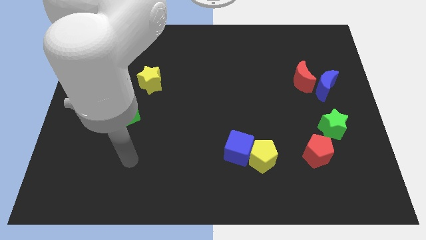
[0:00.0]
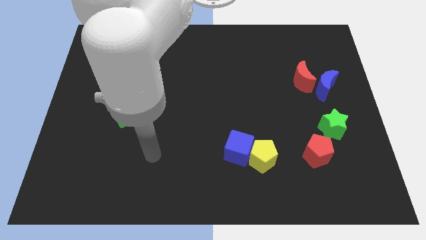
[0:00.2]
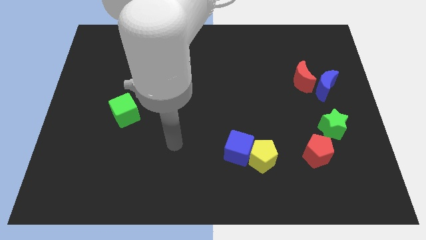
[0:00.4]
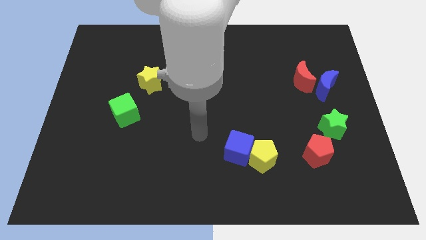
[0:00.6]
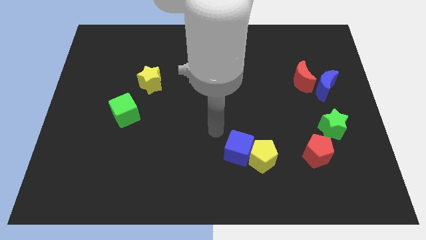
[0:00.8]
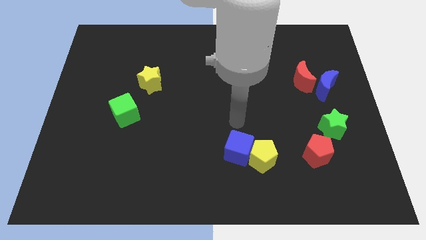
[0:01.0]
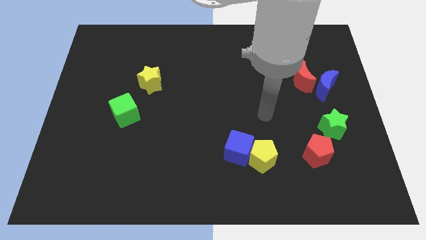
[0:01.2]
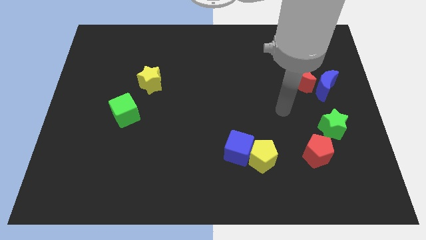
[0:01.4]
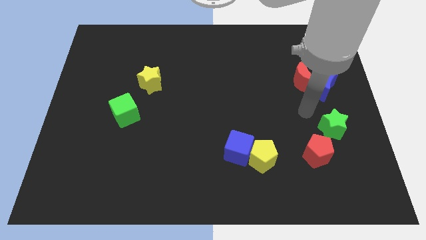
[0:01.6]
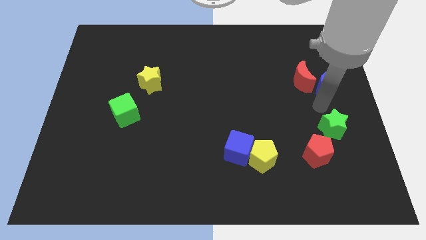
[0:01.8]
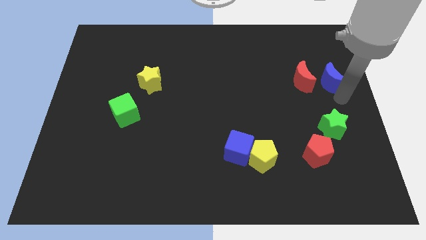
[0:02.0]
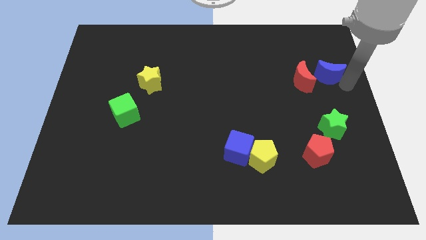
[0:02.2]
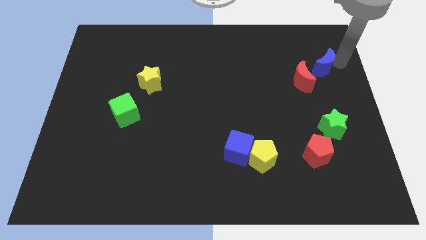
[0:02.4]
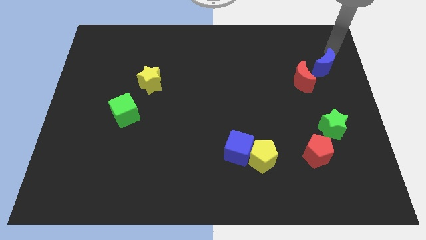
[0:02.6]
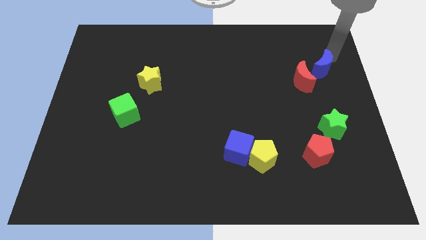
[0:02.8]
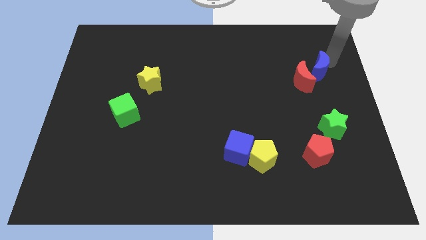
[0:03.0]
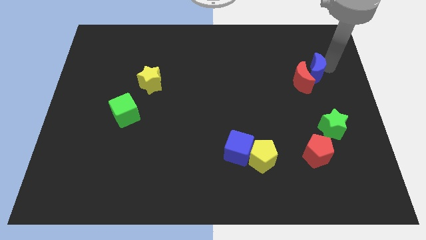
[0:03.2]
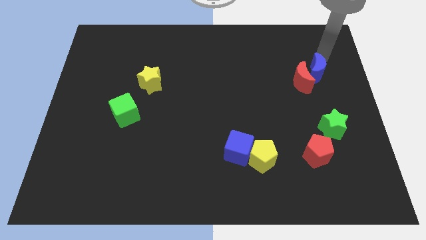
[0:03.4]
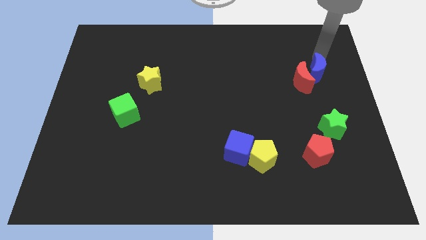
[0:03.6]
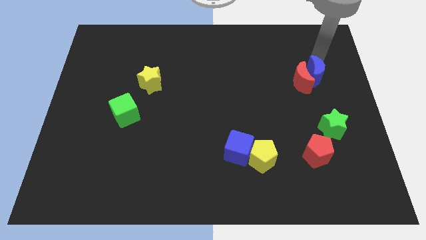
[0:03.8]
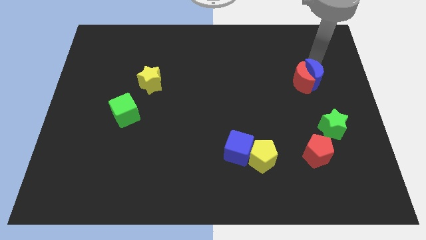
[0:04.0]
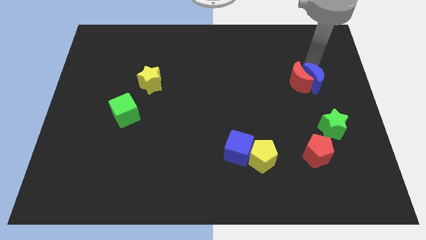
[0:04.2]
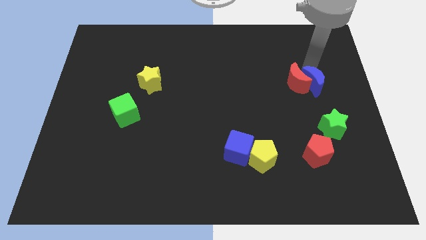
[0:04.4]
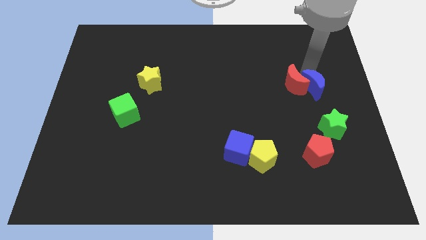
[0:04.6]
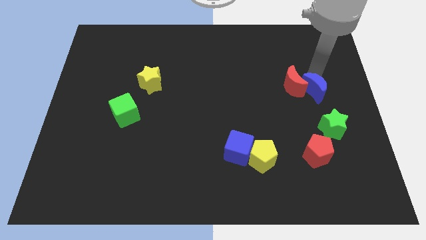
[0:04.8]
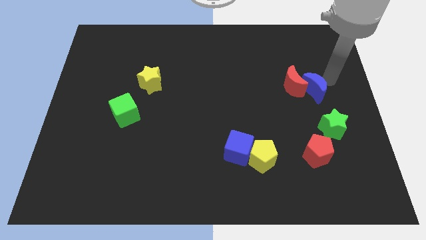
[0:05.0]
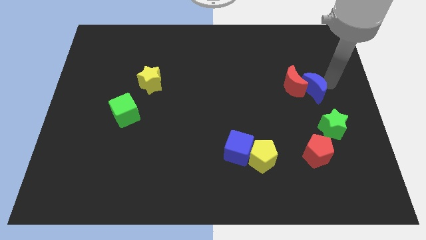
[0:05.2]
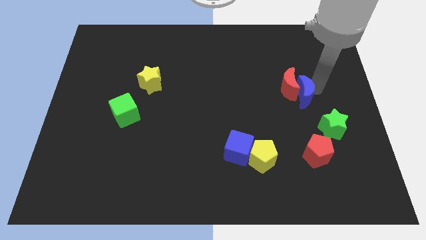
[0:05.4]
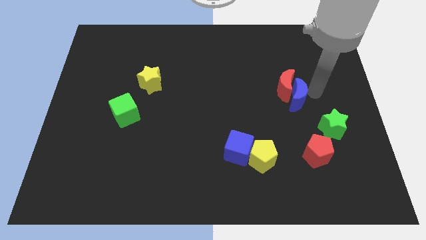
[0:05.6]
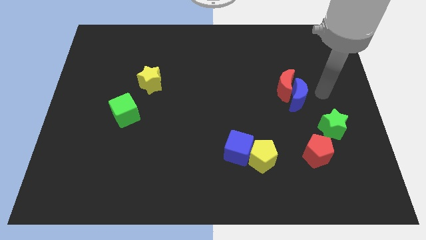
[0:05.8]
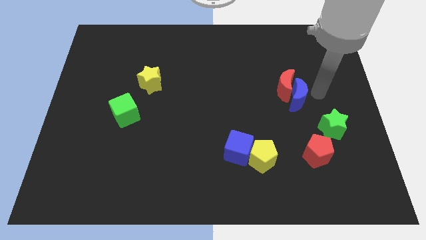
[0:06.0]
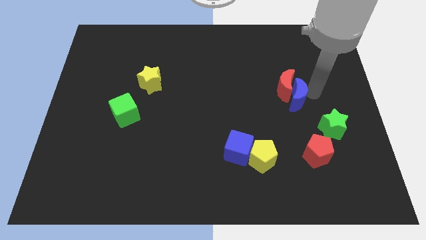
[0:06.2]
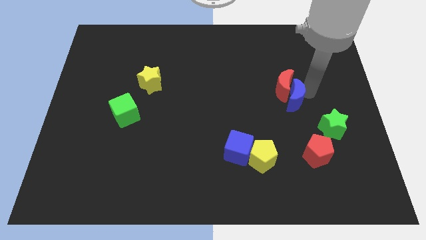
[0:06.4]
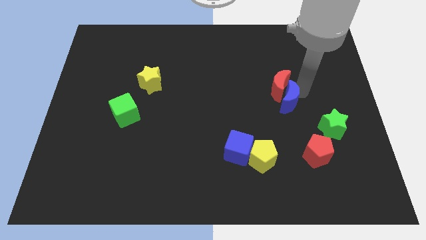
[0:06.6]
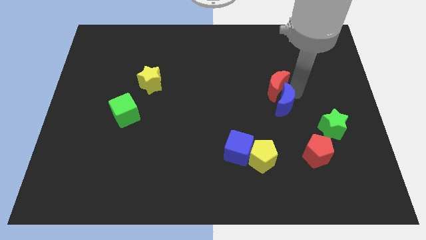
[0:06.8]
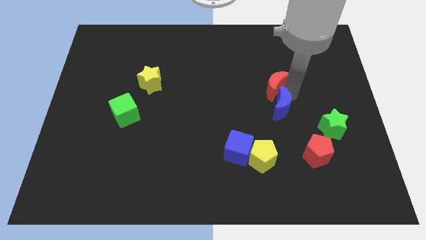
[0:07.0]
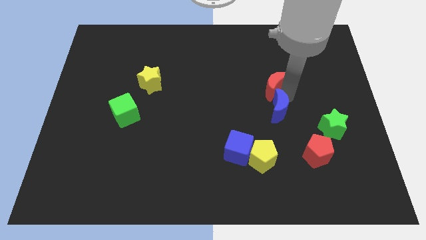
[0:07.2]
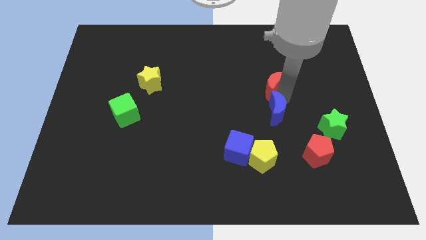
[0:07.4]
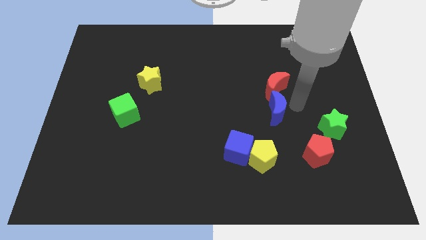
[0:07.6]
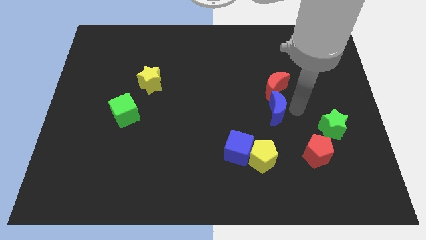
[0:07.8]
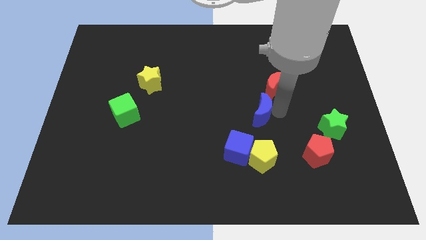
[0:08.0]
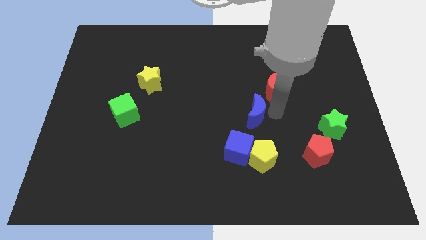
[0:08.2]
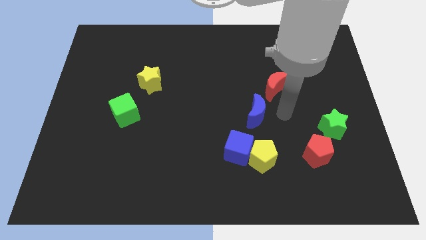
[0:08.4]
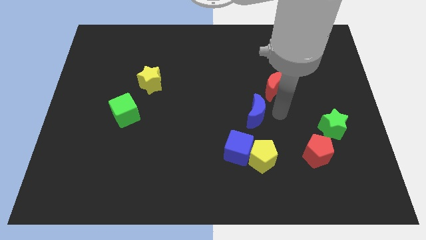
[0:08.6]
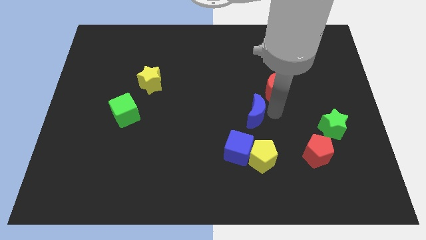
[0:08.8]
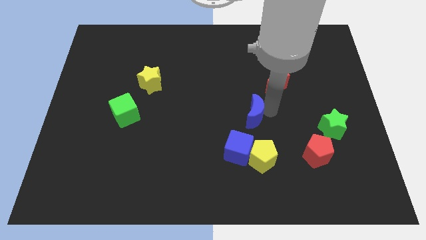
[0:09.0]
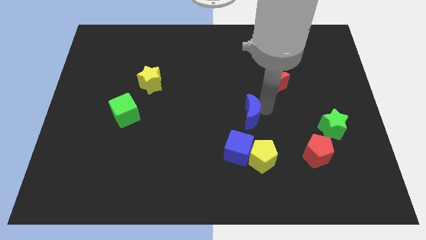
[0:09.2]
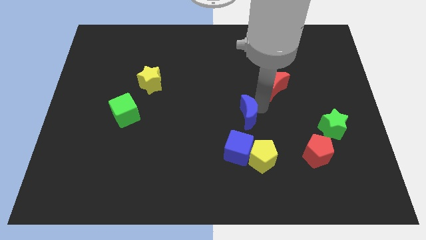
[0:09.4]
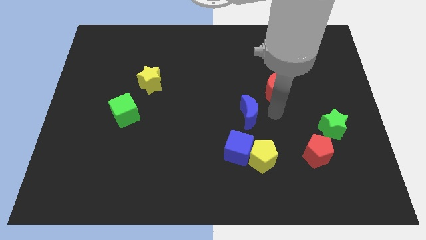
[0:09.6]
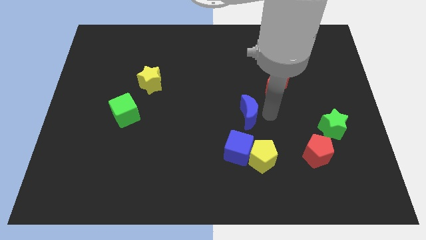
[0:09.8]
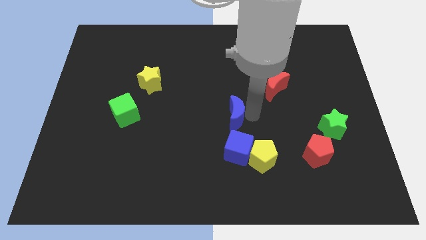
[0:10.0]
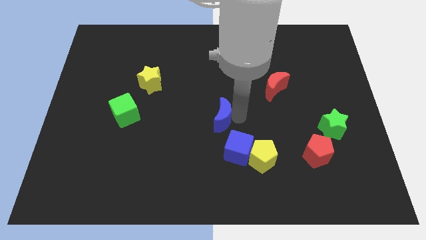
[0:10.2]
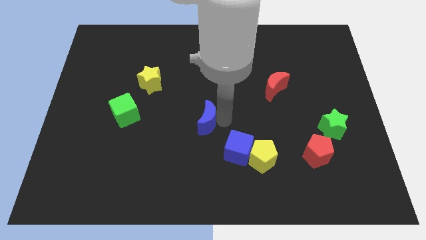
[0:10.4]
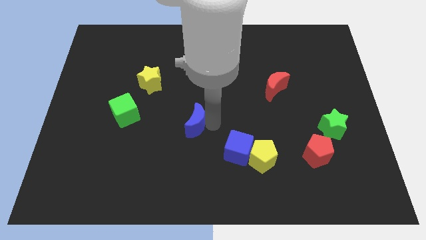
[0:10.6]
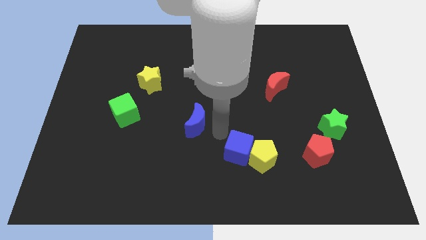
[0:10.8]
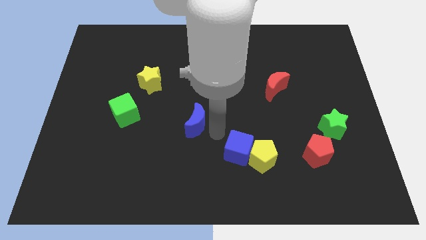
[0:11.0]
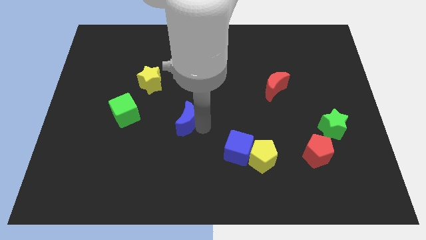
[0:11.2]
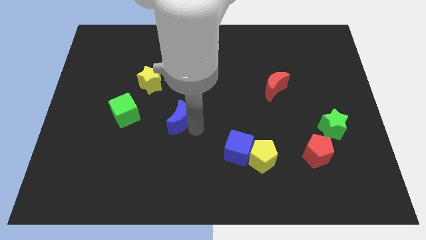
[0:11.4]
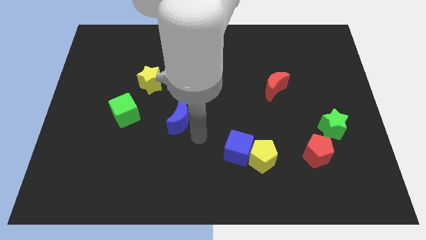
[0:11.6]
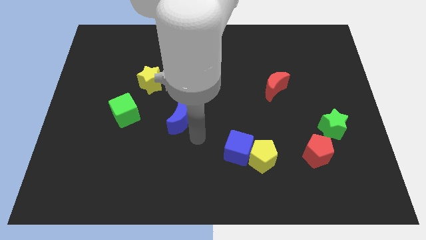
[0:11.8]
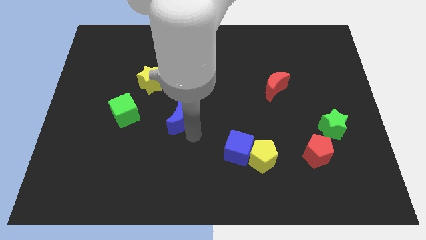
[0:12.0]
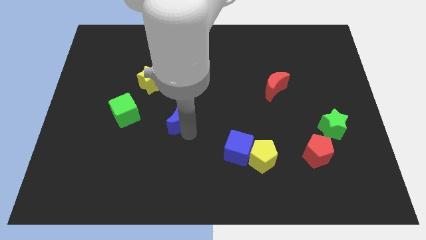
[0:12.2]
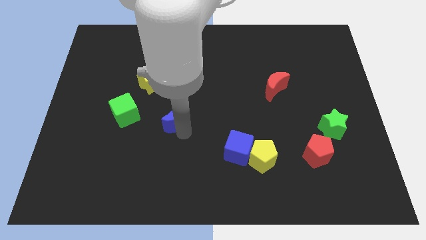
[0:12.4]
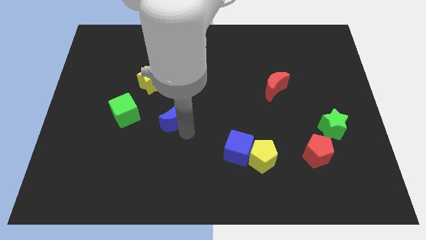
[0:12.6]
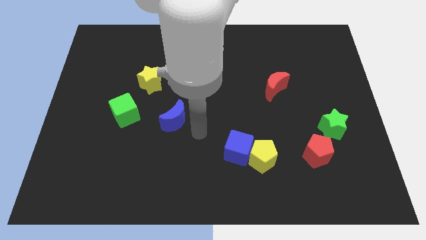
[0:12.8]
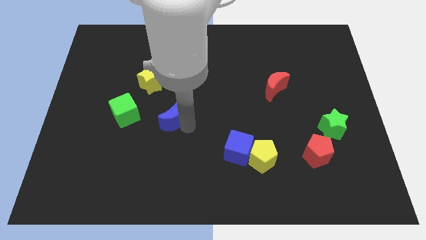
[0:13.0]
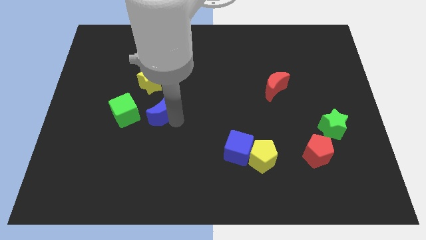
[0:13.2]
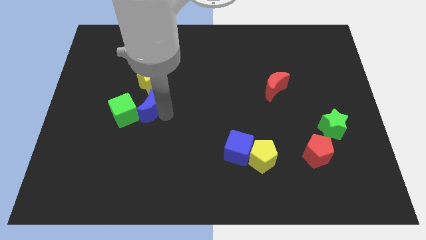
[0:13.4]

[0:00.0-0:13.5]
slide the blue moon towards the green cube
